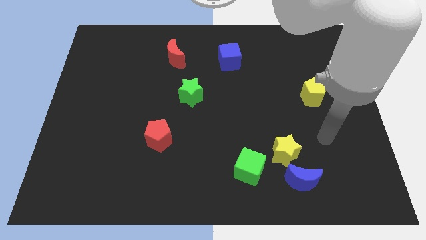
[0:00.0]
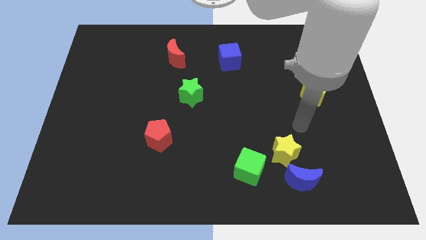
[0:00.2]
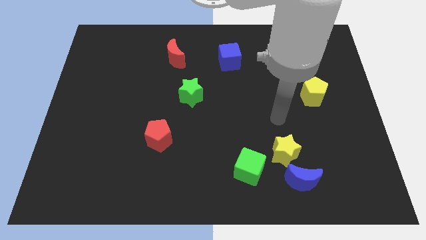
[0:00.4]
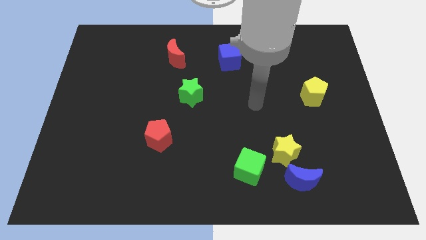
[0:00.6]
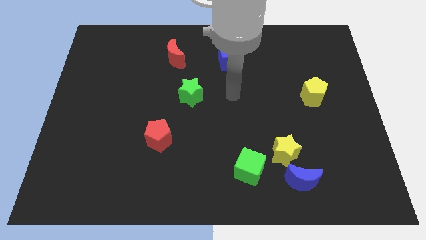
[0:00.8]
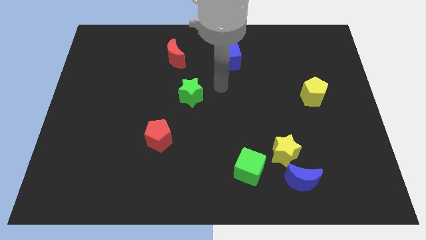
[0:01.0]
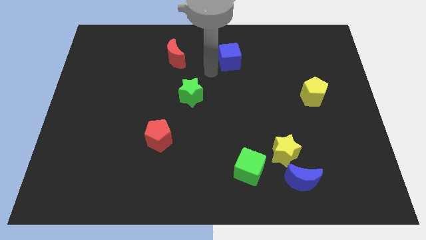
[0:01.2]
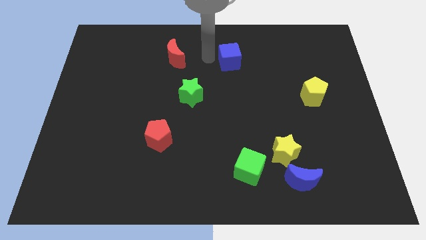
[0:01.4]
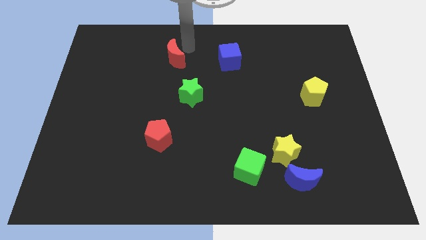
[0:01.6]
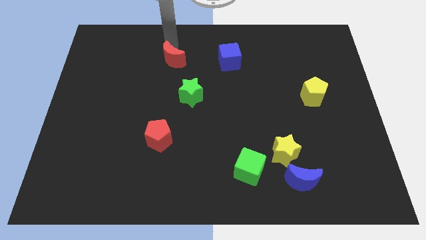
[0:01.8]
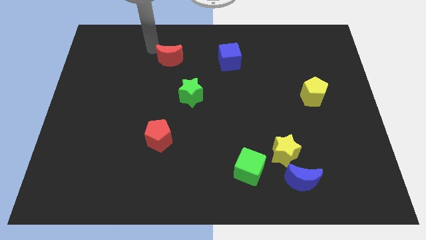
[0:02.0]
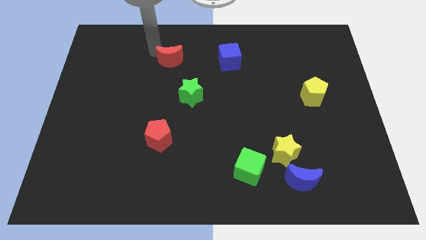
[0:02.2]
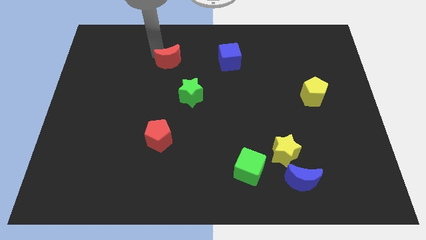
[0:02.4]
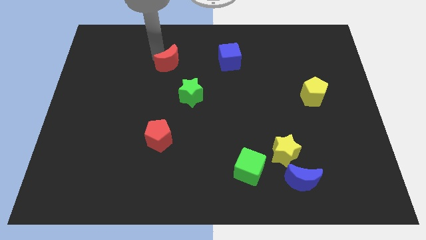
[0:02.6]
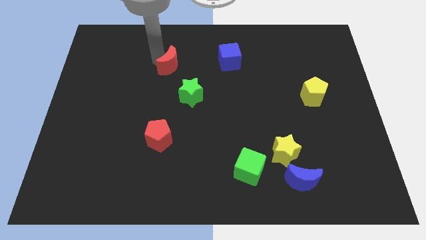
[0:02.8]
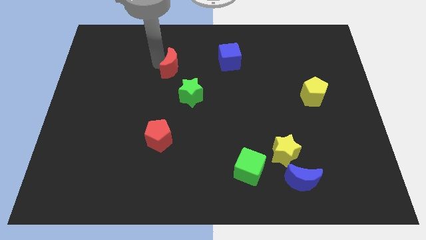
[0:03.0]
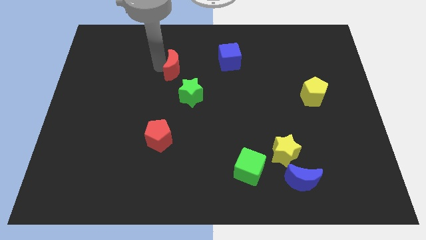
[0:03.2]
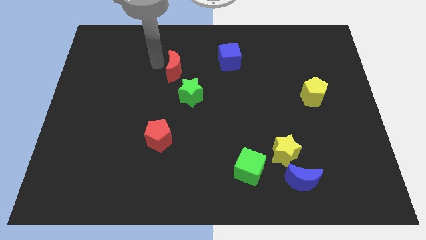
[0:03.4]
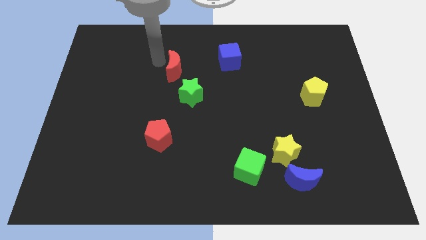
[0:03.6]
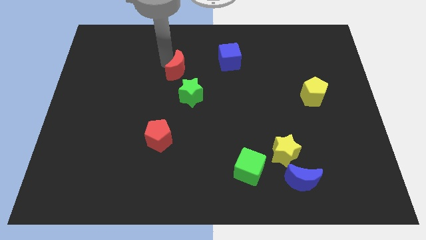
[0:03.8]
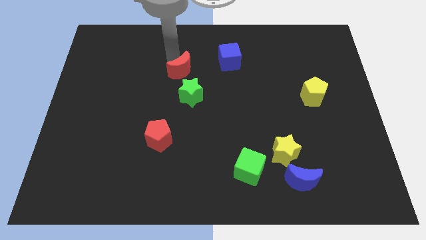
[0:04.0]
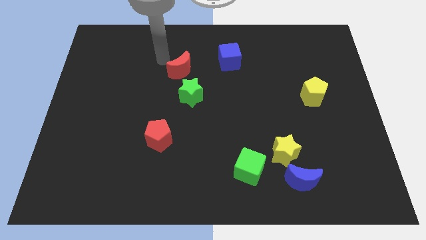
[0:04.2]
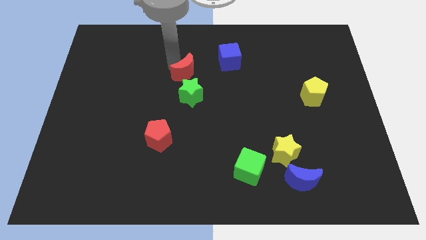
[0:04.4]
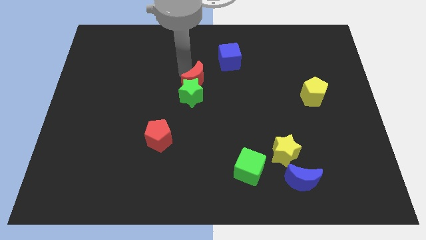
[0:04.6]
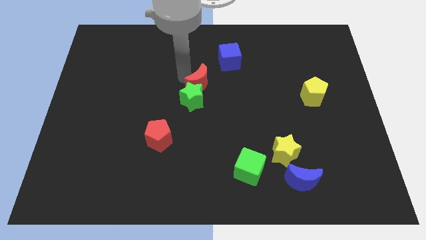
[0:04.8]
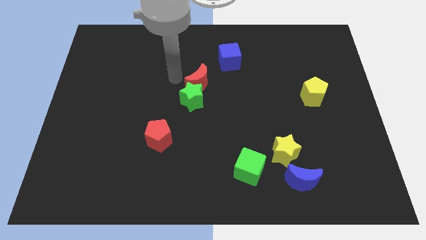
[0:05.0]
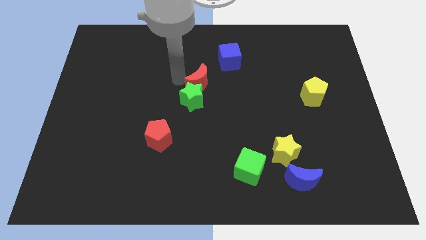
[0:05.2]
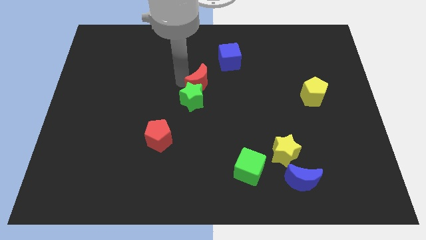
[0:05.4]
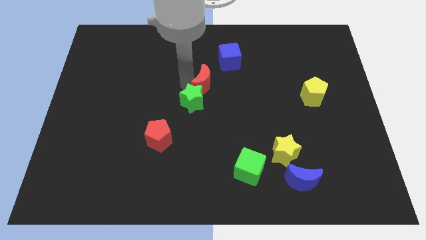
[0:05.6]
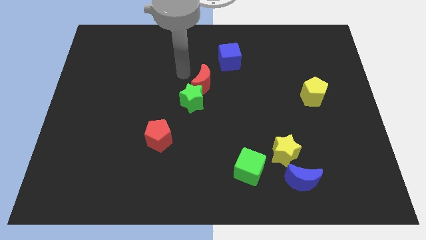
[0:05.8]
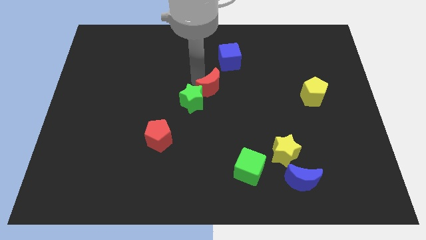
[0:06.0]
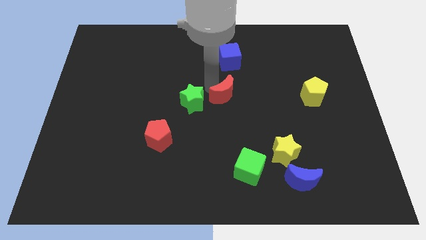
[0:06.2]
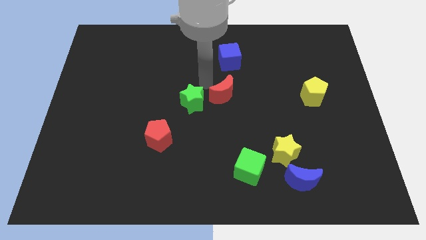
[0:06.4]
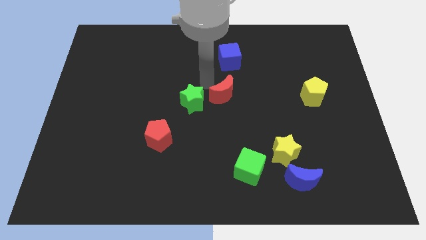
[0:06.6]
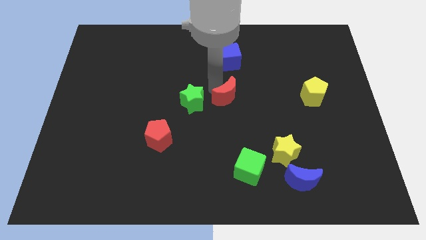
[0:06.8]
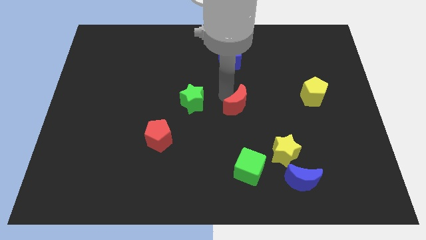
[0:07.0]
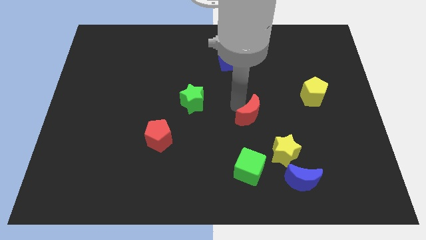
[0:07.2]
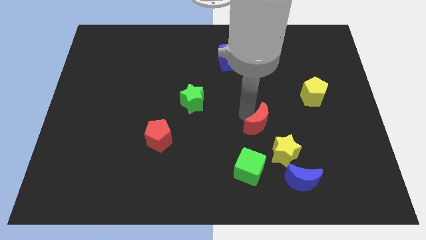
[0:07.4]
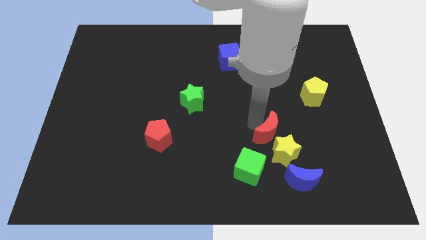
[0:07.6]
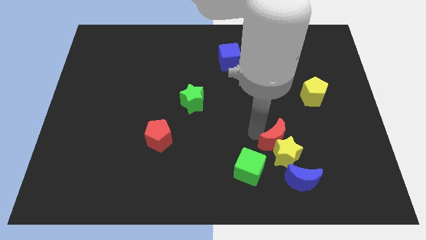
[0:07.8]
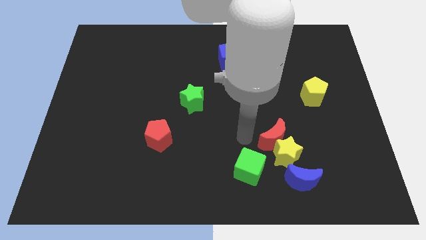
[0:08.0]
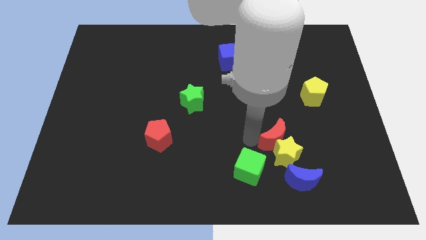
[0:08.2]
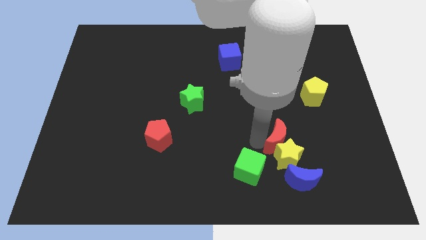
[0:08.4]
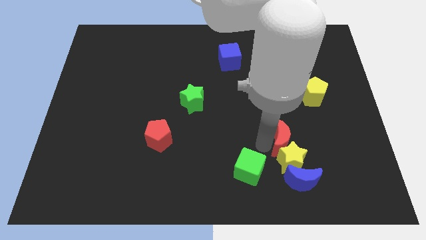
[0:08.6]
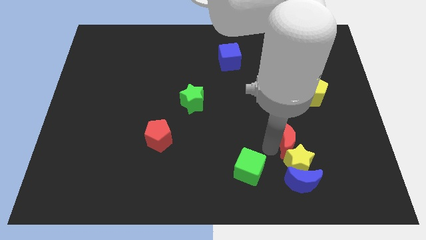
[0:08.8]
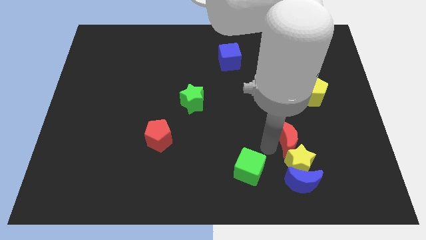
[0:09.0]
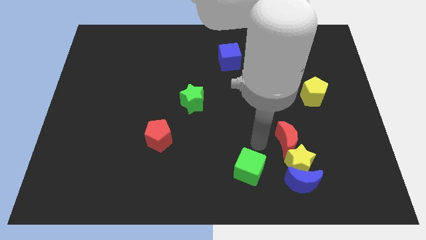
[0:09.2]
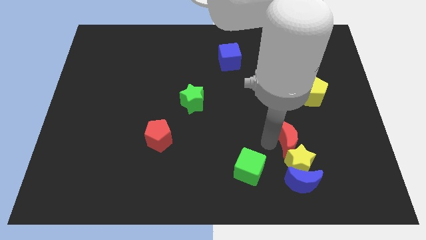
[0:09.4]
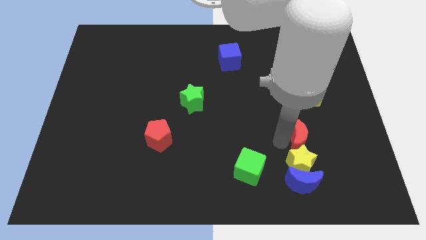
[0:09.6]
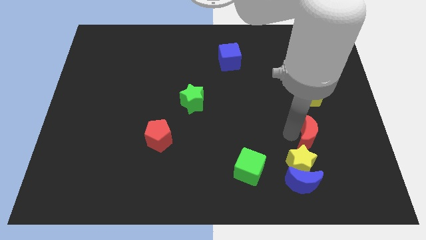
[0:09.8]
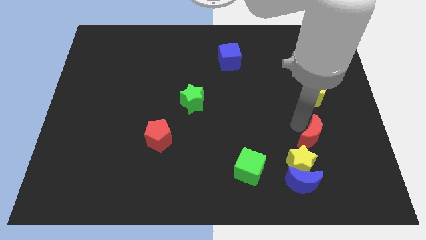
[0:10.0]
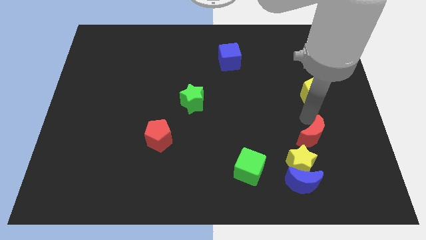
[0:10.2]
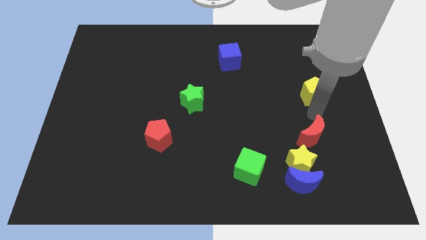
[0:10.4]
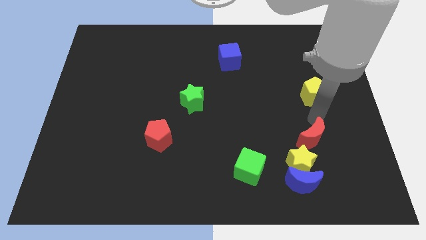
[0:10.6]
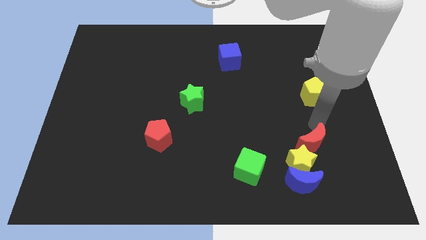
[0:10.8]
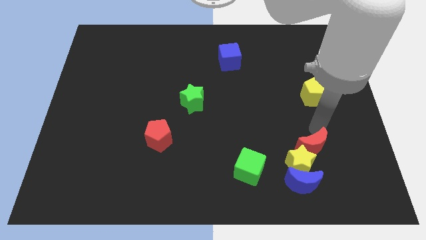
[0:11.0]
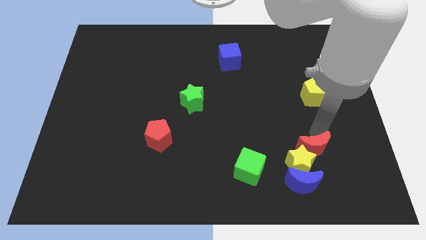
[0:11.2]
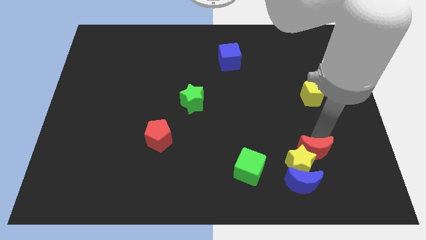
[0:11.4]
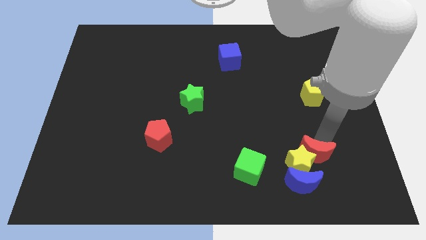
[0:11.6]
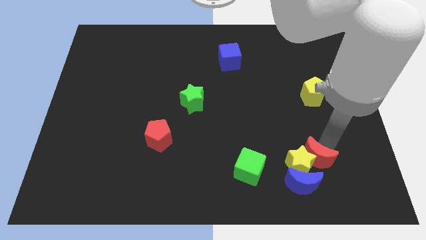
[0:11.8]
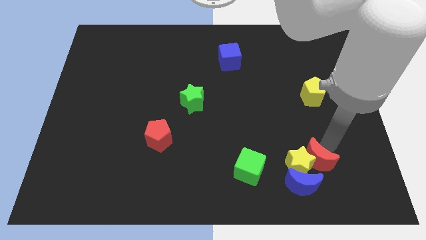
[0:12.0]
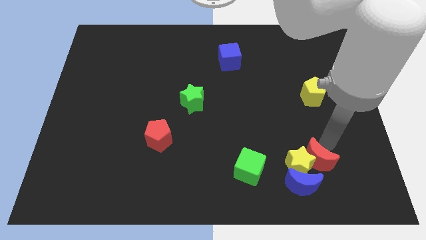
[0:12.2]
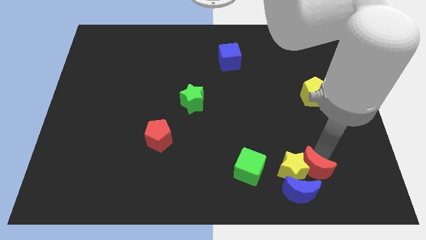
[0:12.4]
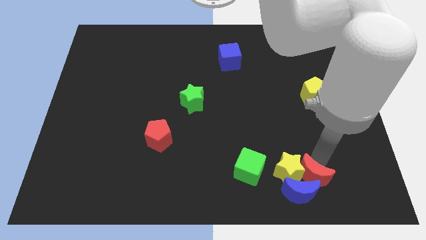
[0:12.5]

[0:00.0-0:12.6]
put the red moon towards the blue moon

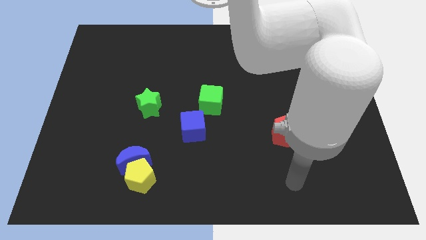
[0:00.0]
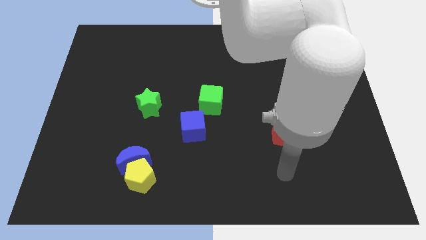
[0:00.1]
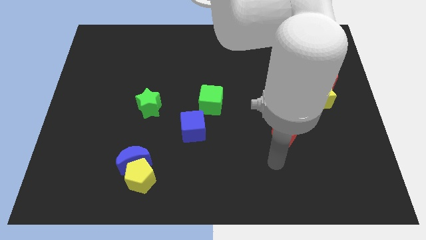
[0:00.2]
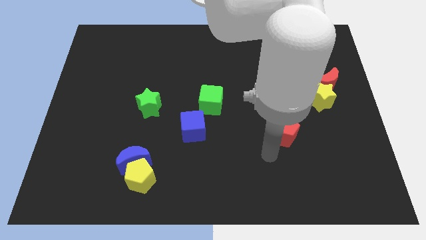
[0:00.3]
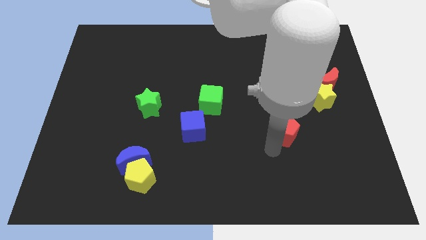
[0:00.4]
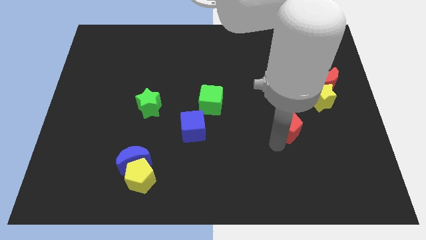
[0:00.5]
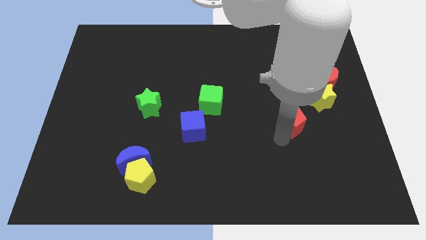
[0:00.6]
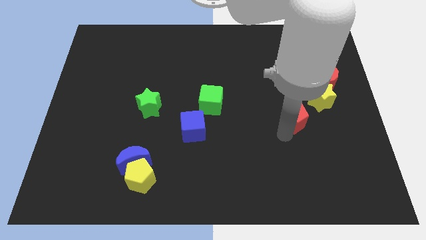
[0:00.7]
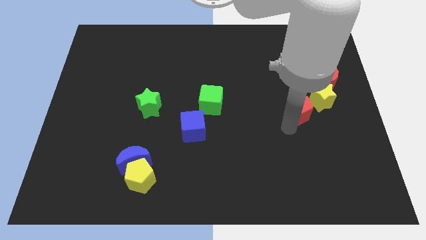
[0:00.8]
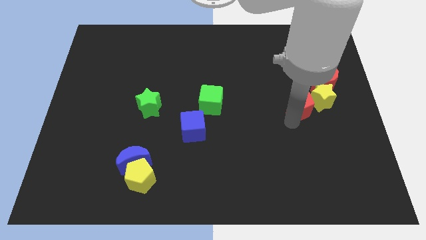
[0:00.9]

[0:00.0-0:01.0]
push the red pentagon towards the yellow star
